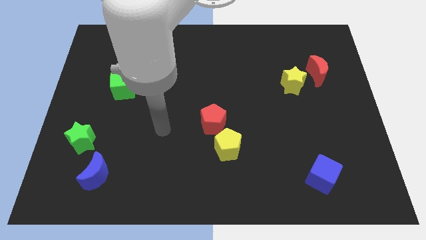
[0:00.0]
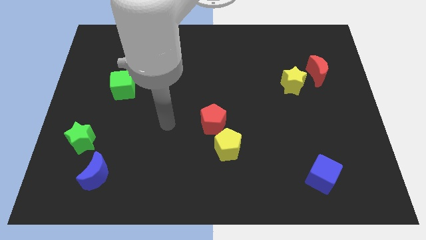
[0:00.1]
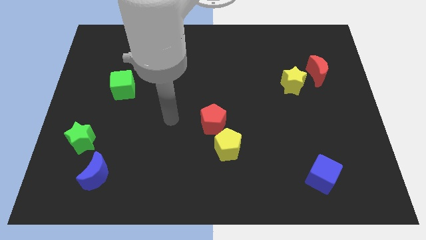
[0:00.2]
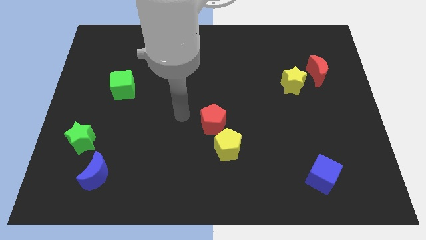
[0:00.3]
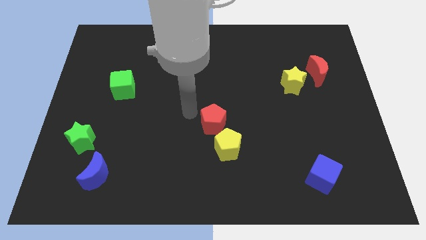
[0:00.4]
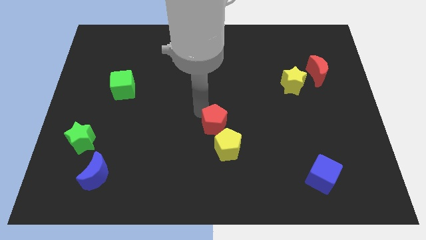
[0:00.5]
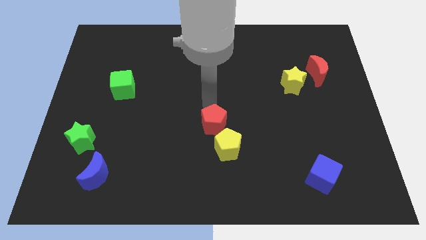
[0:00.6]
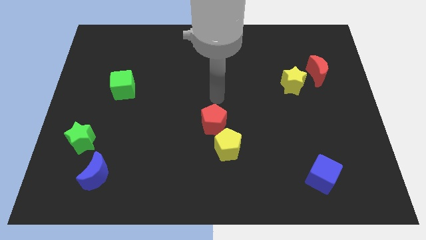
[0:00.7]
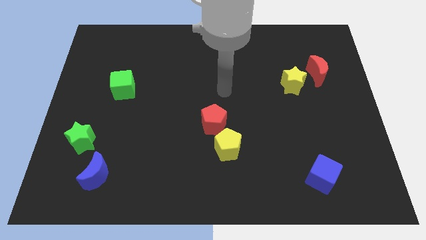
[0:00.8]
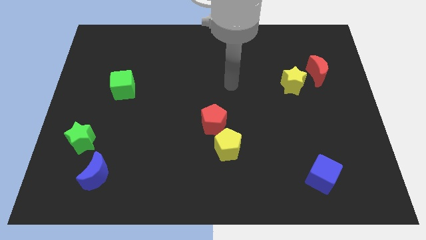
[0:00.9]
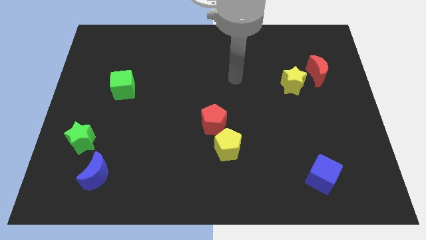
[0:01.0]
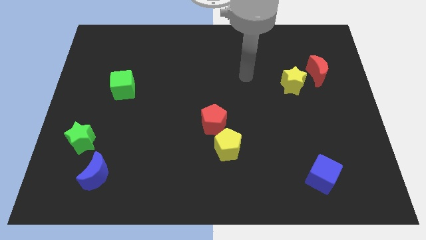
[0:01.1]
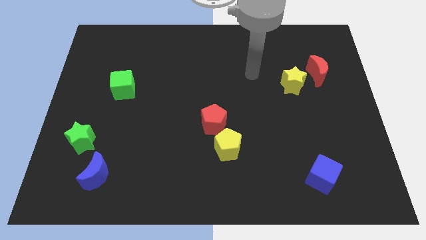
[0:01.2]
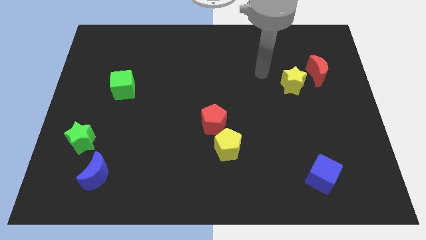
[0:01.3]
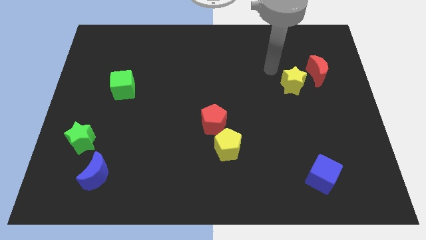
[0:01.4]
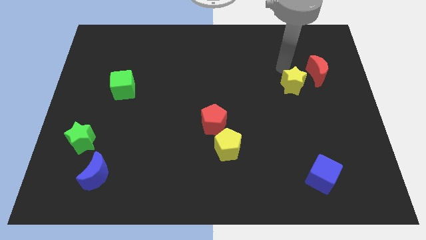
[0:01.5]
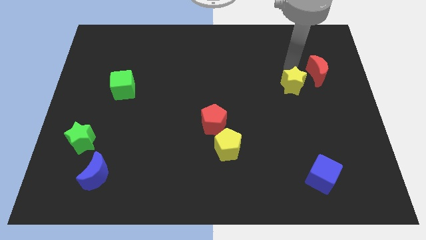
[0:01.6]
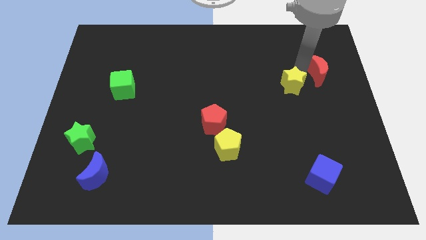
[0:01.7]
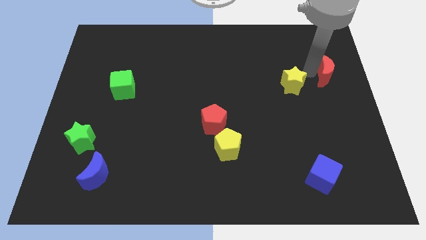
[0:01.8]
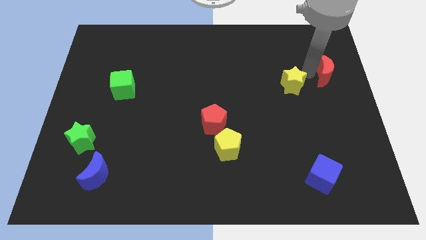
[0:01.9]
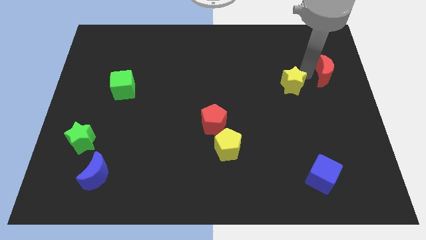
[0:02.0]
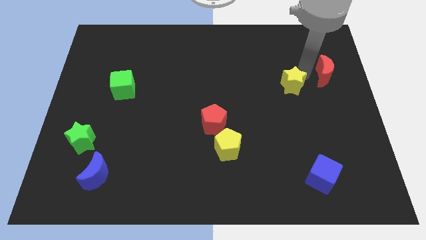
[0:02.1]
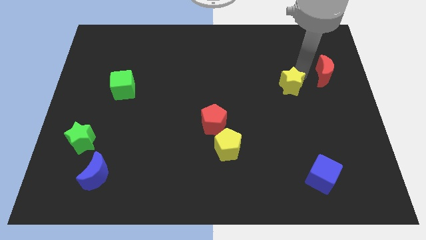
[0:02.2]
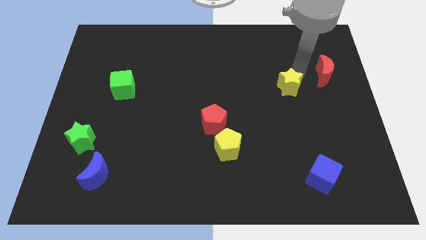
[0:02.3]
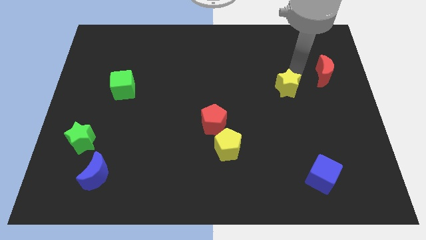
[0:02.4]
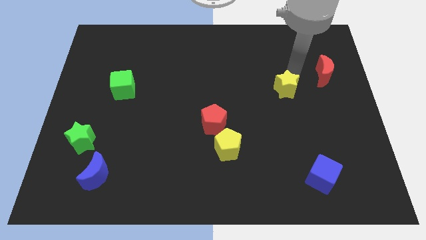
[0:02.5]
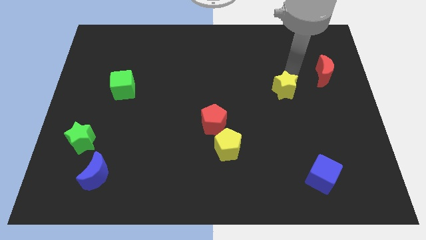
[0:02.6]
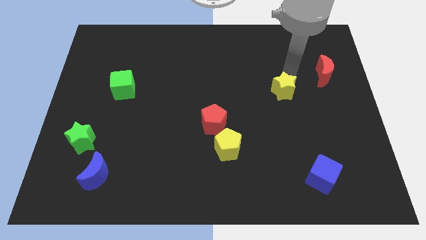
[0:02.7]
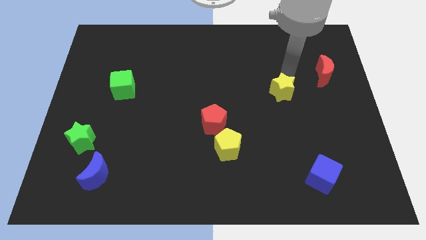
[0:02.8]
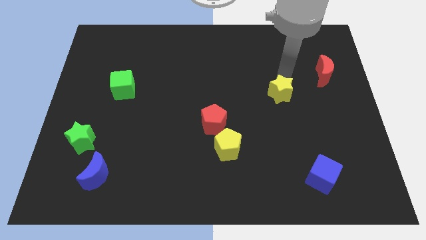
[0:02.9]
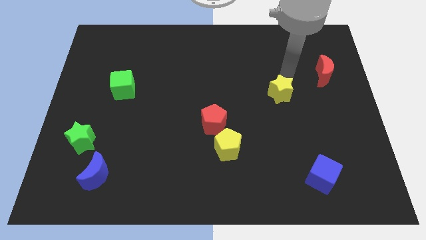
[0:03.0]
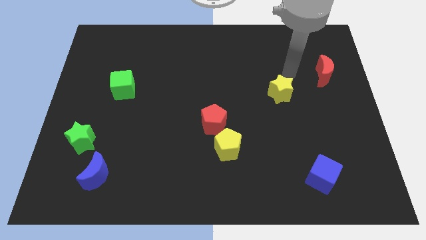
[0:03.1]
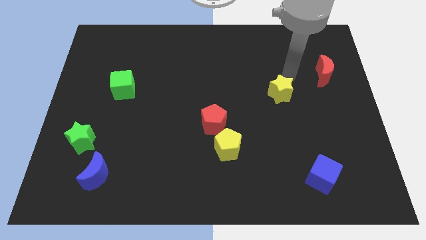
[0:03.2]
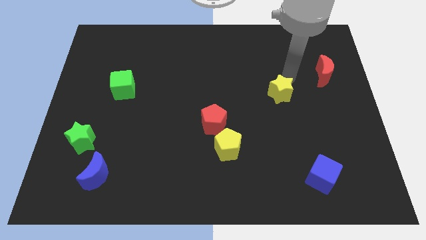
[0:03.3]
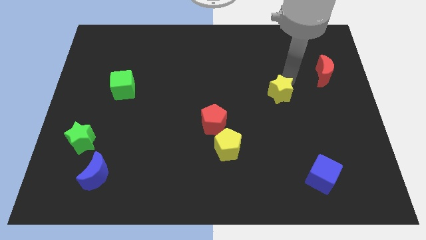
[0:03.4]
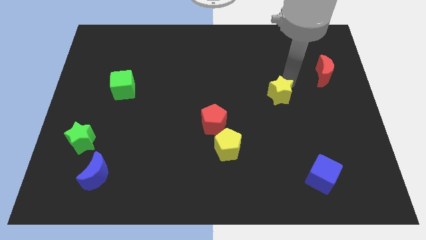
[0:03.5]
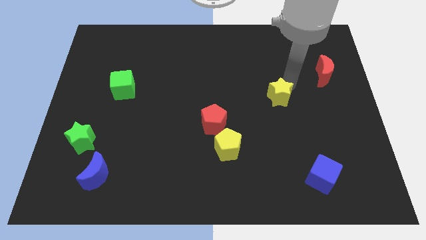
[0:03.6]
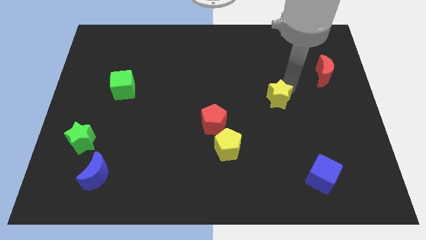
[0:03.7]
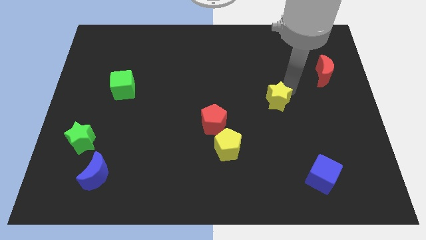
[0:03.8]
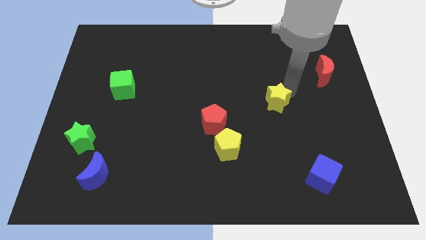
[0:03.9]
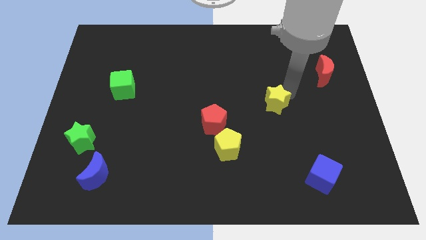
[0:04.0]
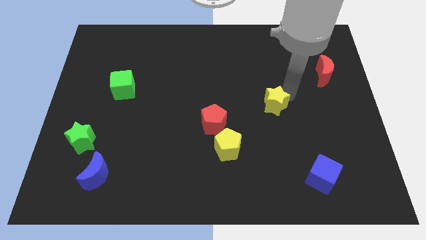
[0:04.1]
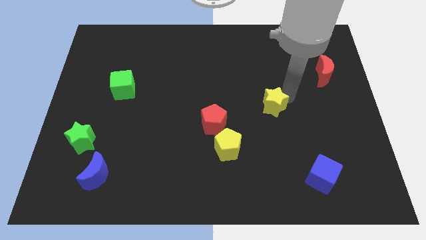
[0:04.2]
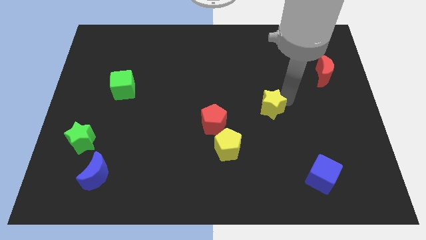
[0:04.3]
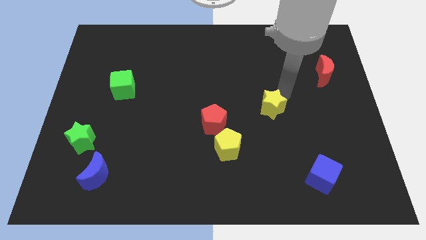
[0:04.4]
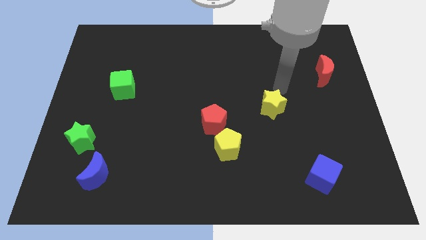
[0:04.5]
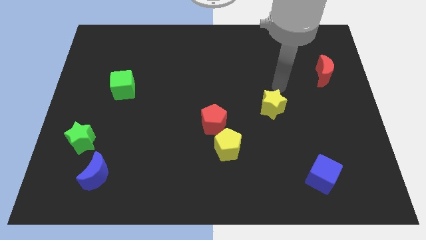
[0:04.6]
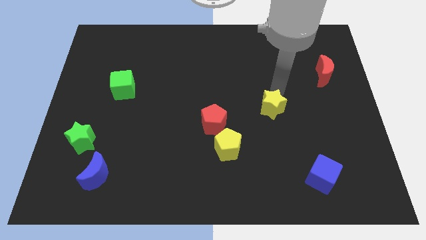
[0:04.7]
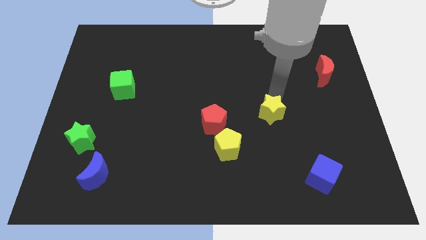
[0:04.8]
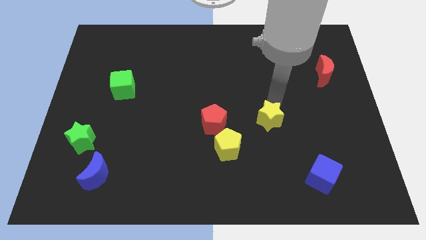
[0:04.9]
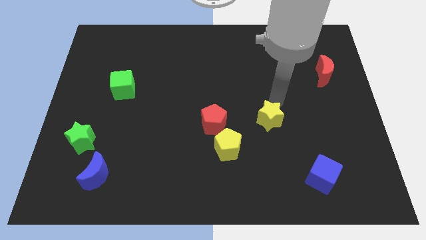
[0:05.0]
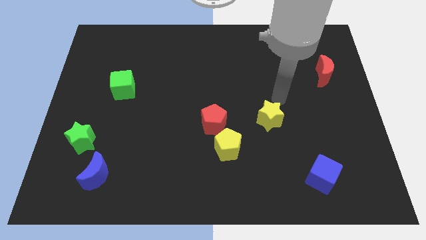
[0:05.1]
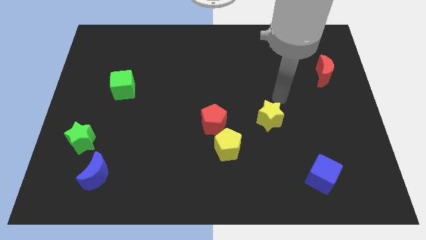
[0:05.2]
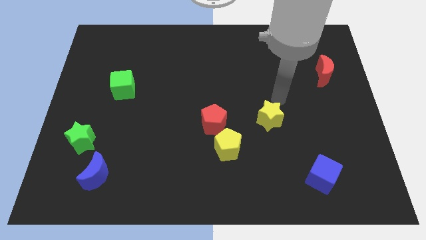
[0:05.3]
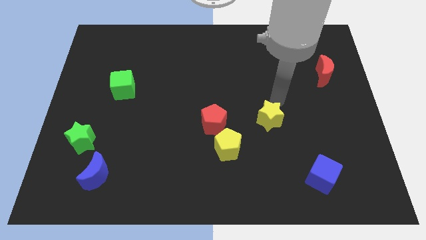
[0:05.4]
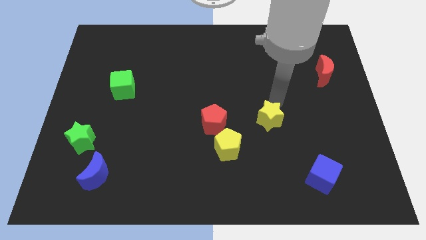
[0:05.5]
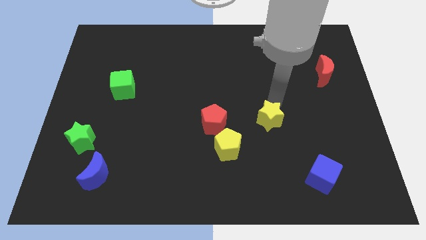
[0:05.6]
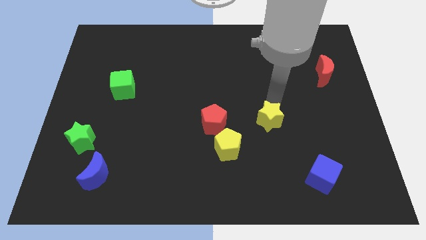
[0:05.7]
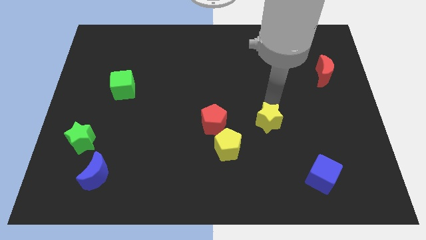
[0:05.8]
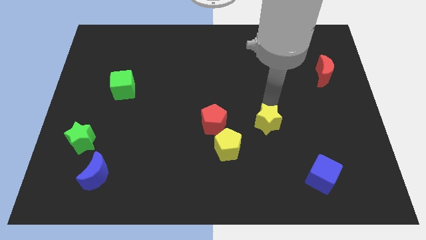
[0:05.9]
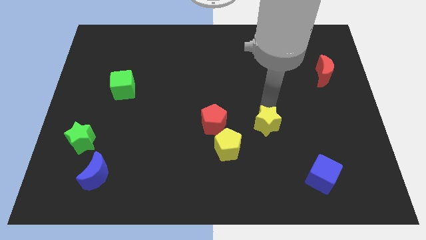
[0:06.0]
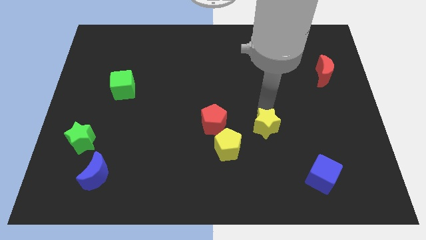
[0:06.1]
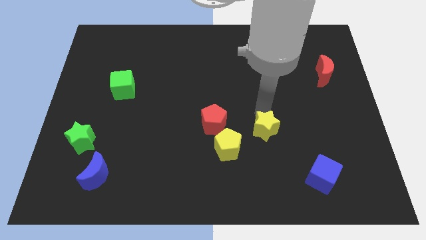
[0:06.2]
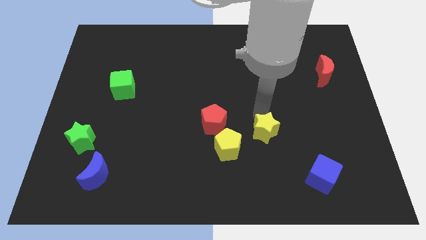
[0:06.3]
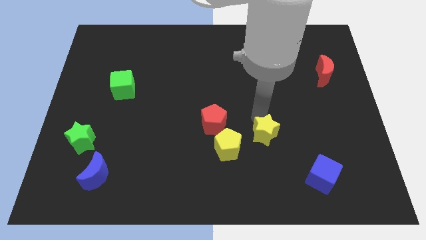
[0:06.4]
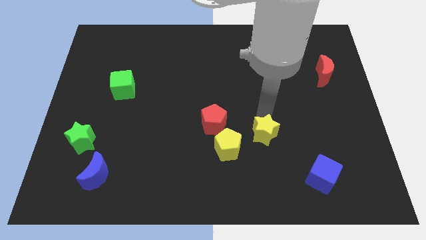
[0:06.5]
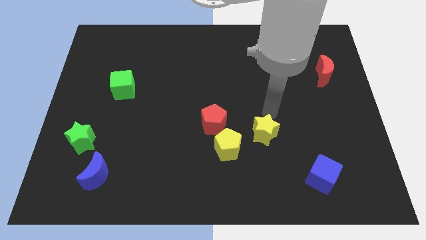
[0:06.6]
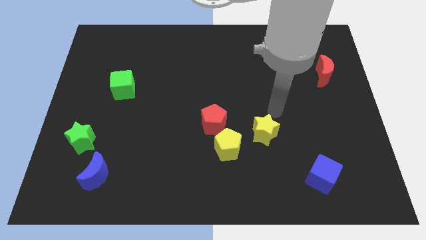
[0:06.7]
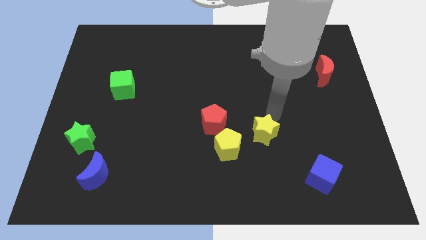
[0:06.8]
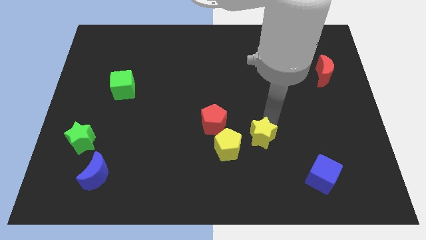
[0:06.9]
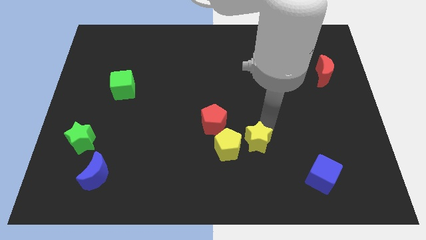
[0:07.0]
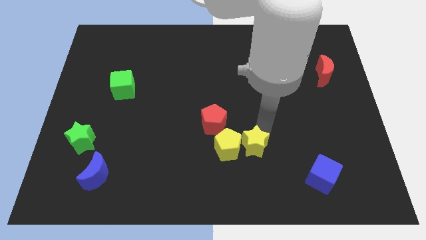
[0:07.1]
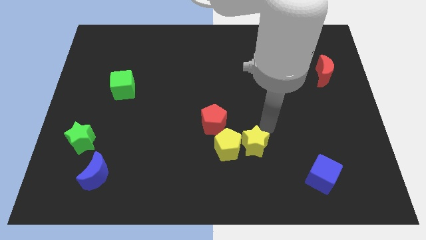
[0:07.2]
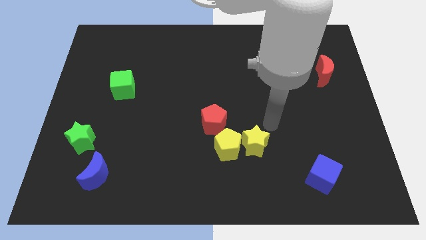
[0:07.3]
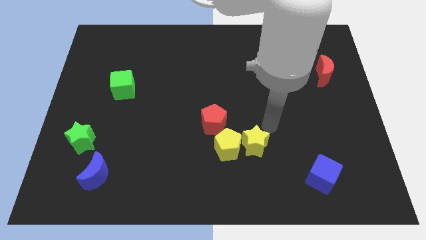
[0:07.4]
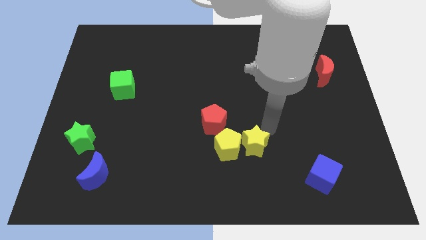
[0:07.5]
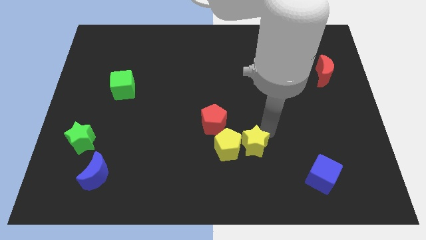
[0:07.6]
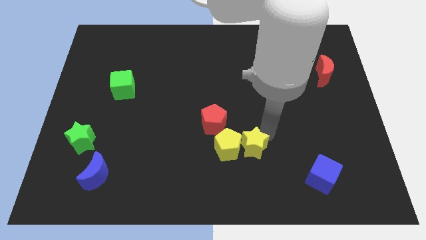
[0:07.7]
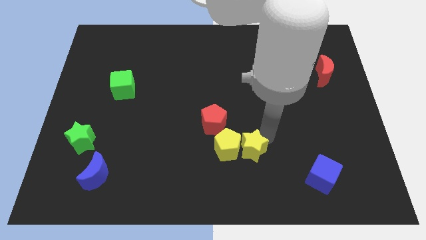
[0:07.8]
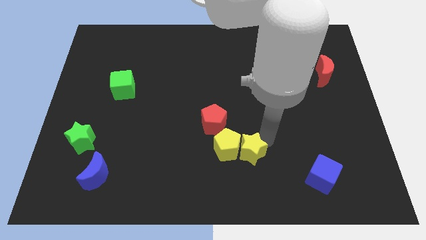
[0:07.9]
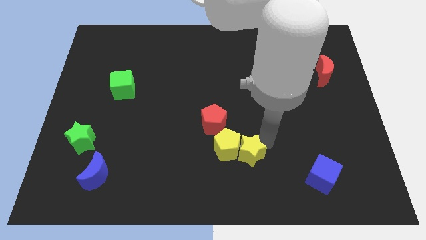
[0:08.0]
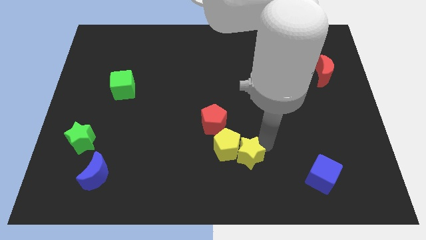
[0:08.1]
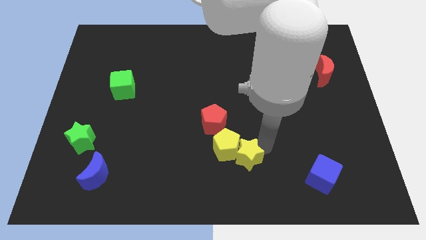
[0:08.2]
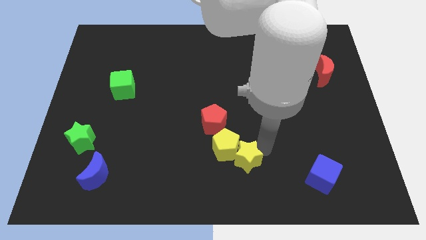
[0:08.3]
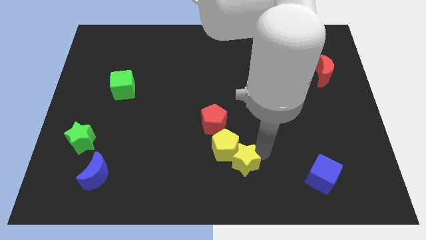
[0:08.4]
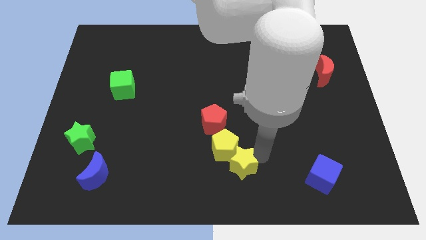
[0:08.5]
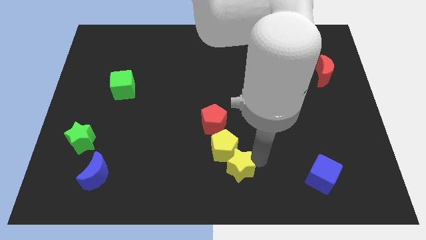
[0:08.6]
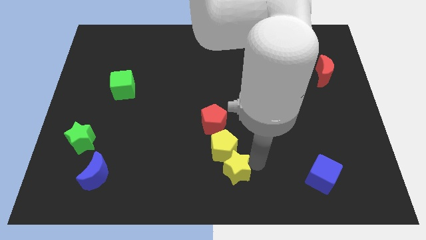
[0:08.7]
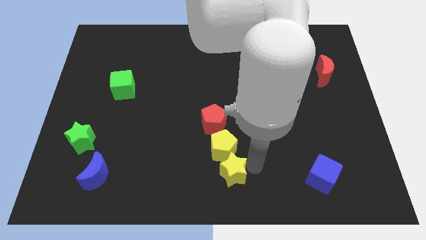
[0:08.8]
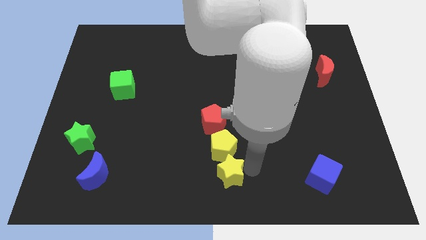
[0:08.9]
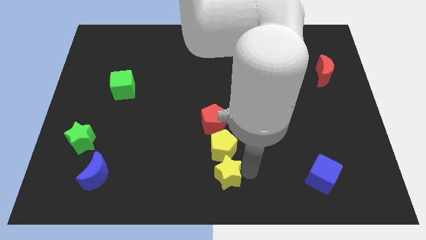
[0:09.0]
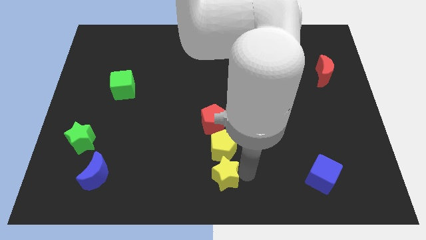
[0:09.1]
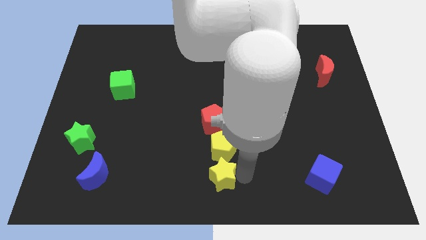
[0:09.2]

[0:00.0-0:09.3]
slide the yellow star diagonally down and to the left of the yellow pentagon
